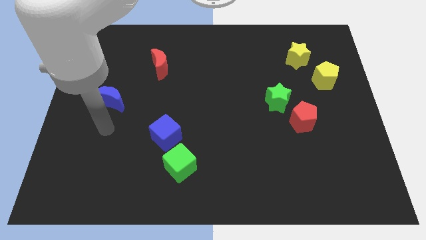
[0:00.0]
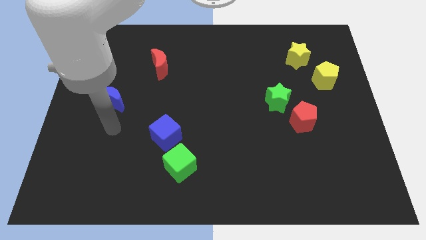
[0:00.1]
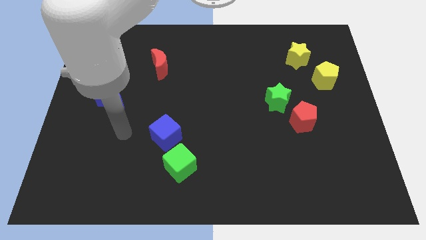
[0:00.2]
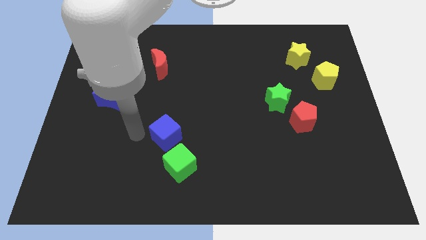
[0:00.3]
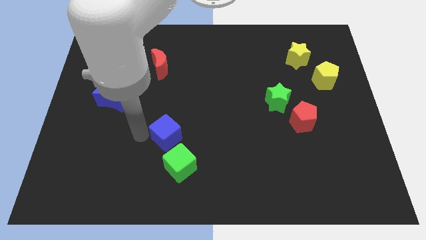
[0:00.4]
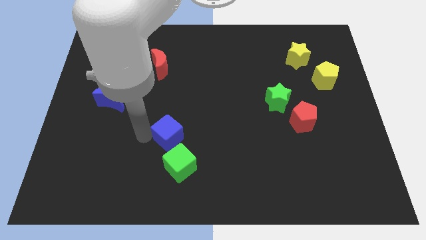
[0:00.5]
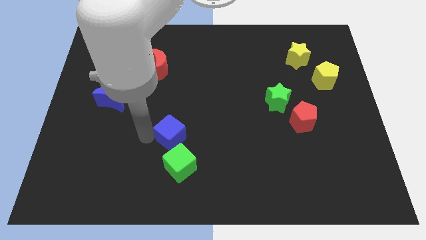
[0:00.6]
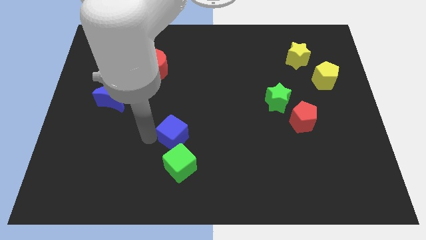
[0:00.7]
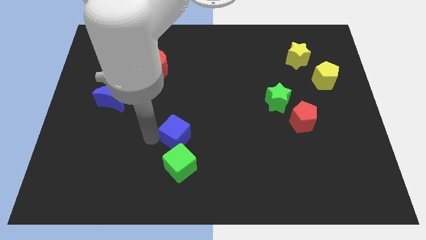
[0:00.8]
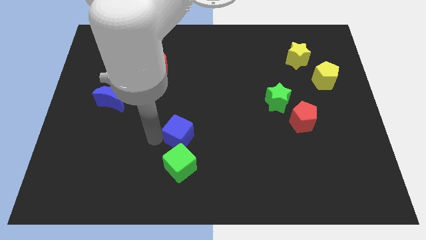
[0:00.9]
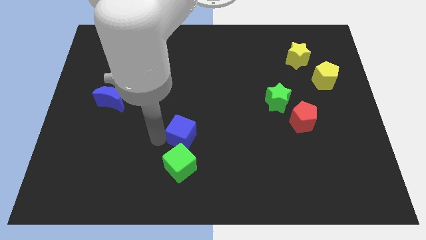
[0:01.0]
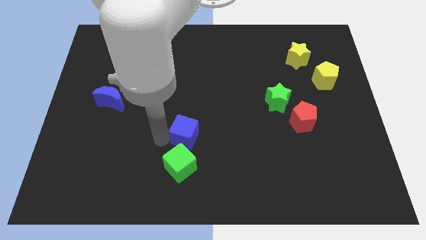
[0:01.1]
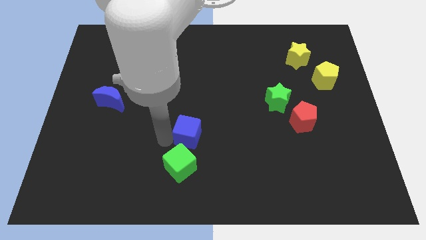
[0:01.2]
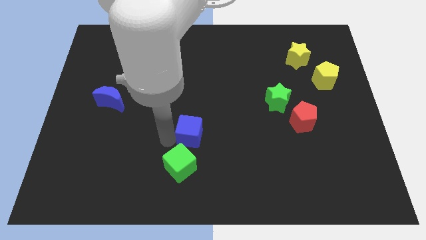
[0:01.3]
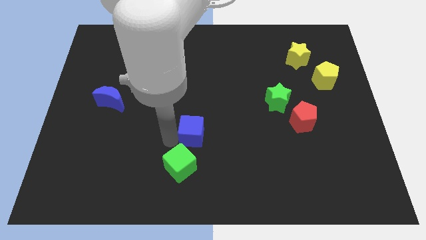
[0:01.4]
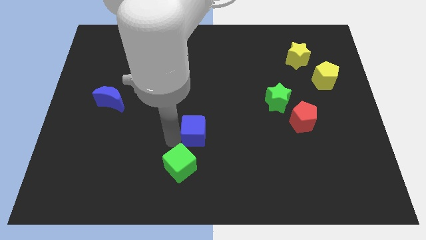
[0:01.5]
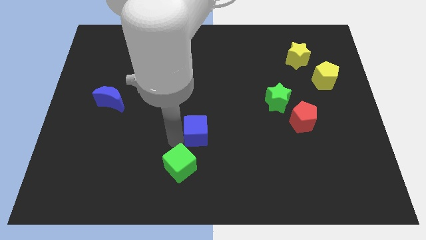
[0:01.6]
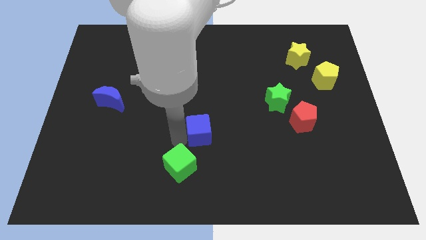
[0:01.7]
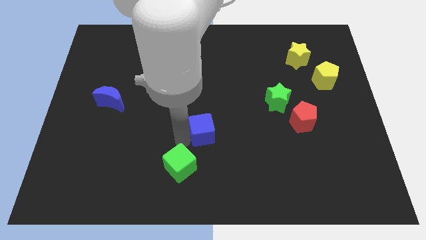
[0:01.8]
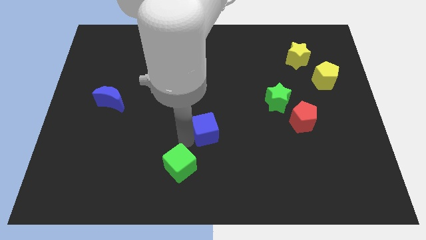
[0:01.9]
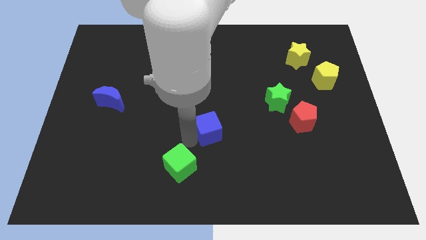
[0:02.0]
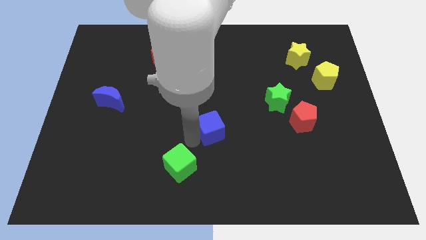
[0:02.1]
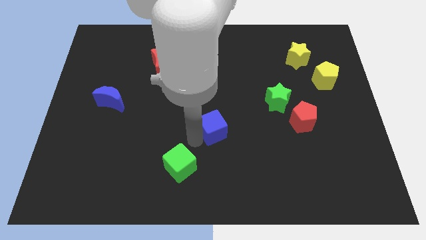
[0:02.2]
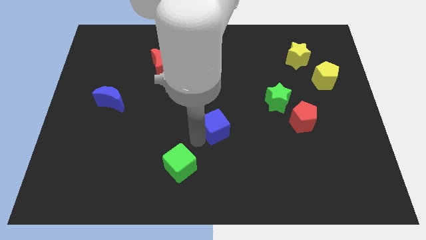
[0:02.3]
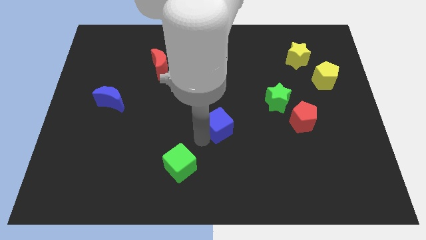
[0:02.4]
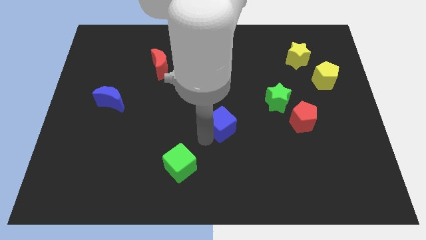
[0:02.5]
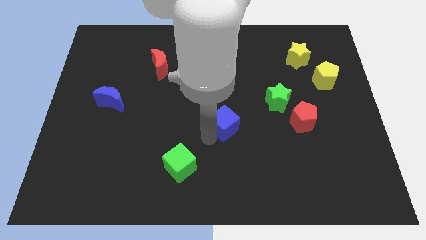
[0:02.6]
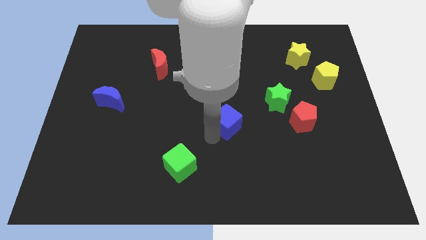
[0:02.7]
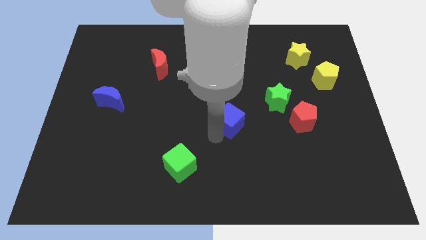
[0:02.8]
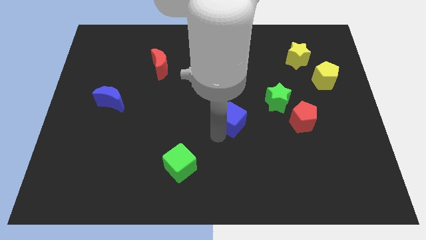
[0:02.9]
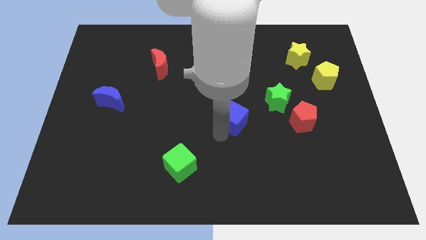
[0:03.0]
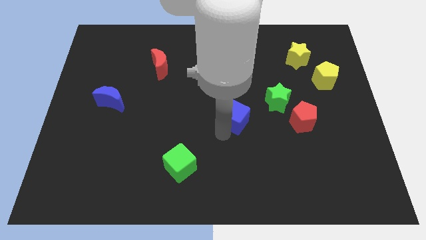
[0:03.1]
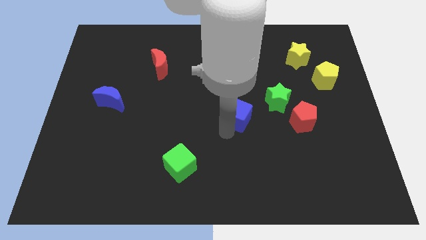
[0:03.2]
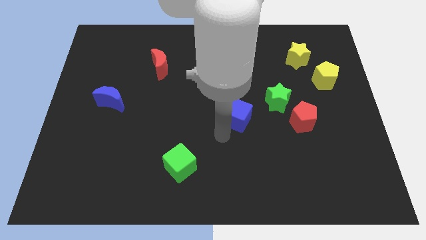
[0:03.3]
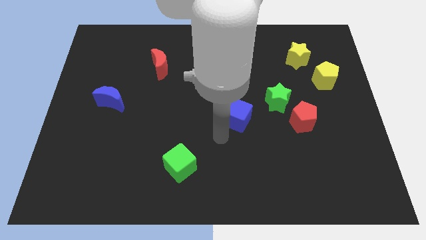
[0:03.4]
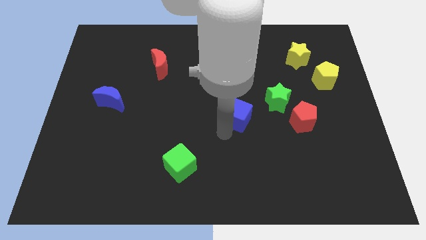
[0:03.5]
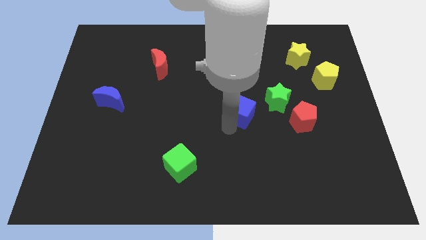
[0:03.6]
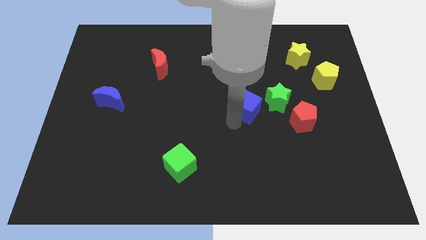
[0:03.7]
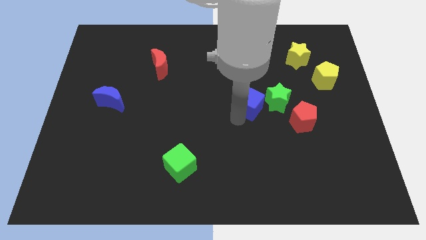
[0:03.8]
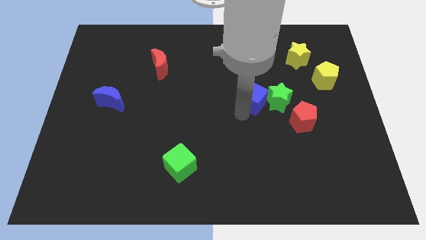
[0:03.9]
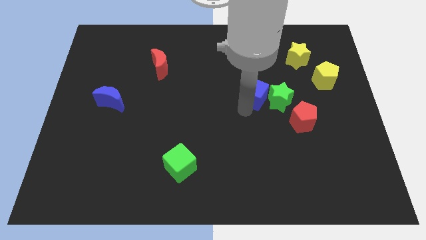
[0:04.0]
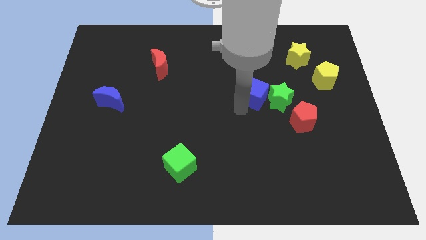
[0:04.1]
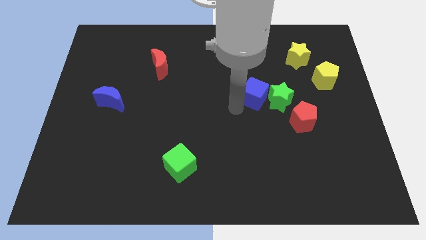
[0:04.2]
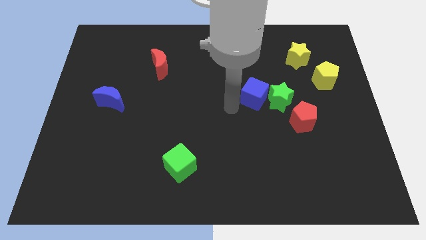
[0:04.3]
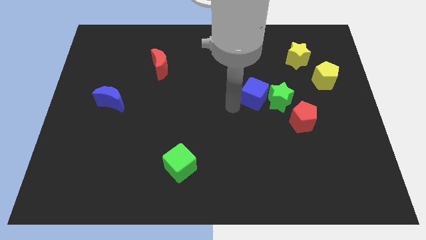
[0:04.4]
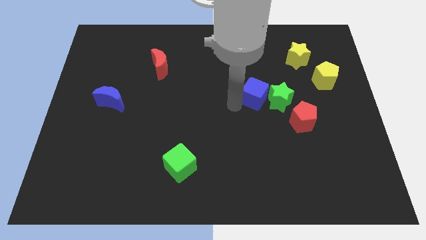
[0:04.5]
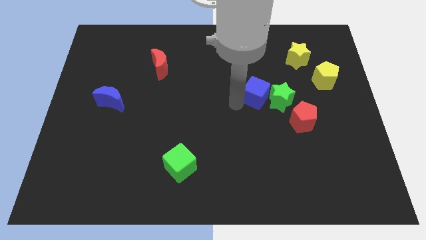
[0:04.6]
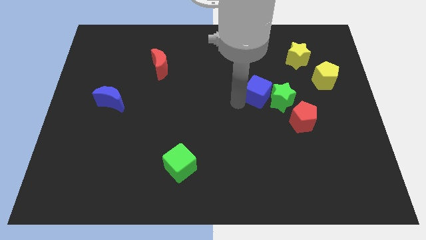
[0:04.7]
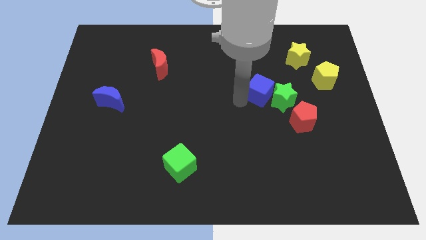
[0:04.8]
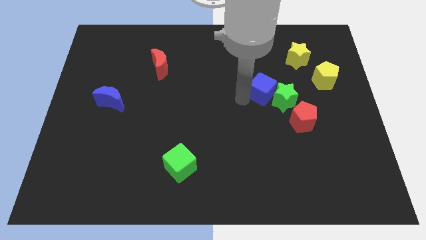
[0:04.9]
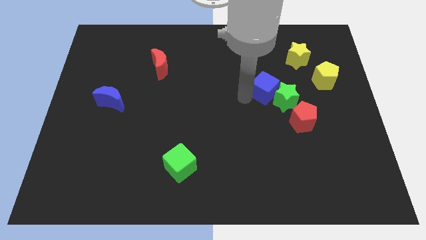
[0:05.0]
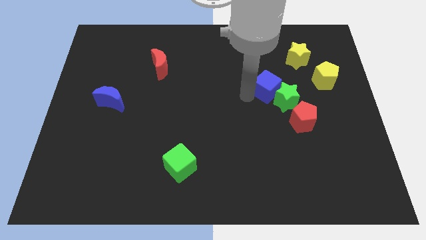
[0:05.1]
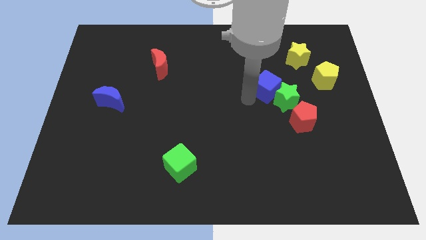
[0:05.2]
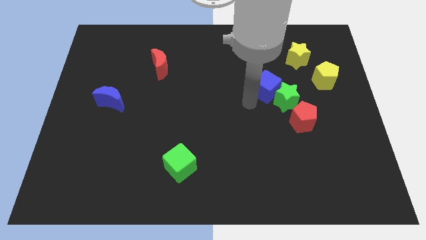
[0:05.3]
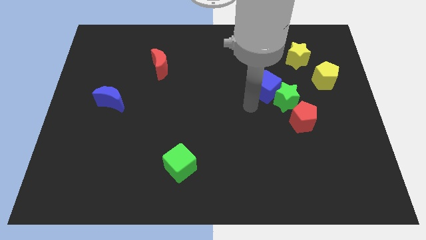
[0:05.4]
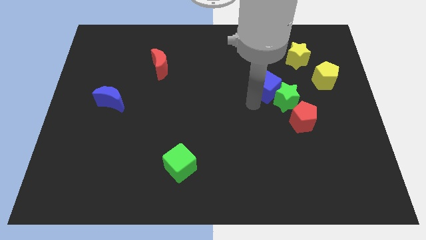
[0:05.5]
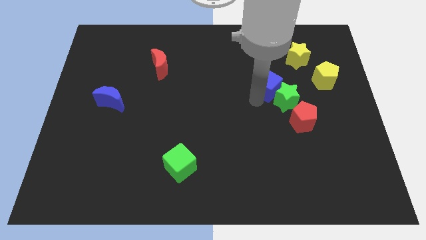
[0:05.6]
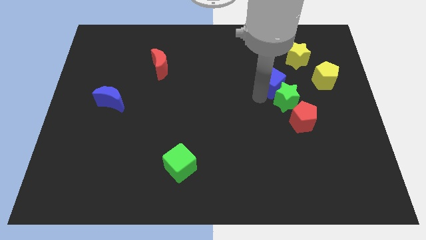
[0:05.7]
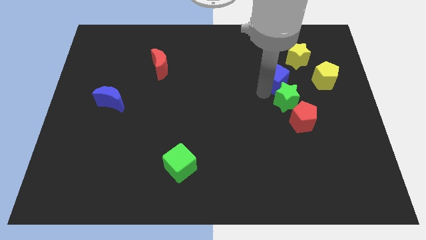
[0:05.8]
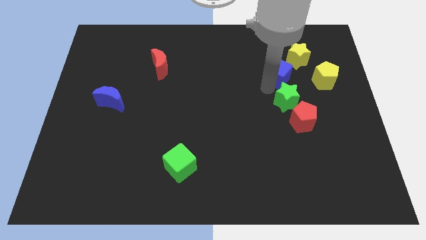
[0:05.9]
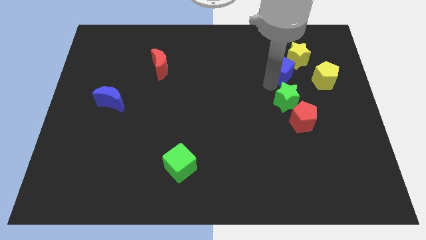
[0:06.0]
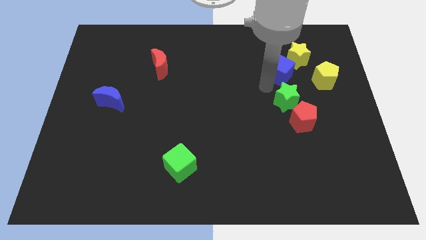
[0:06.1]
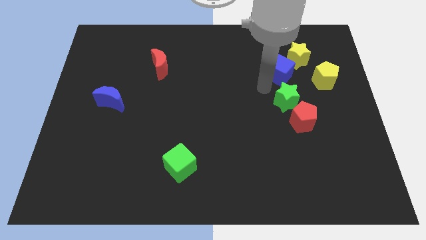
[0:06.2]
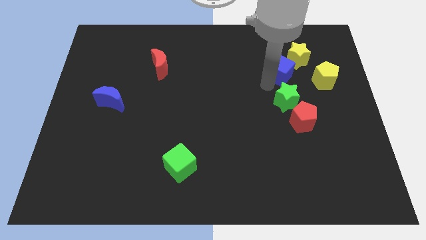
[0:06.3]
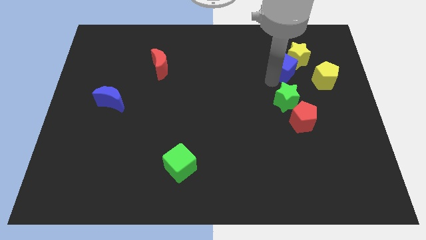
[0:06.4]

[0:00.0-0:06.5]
slide the blue cube close to the yellow star
